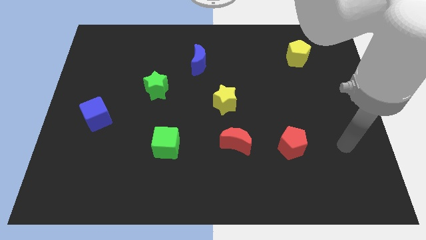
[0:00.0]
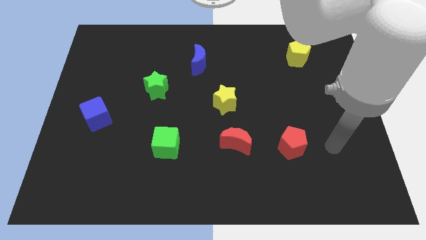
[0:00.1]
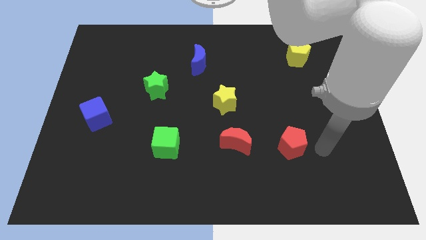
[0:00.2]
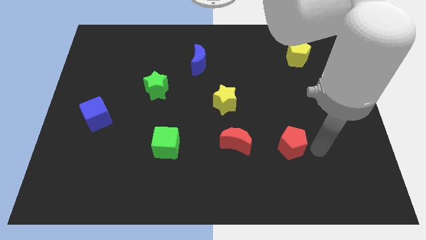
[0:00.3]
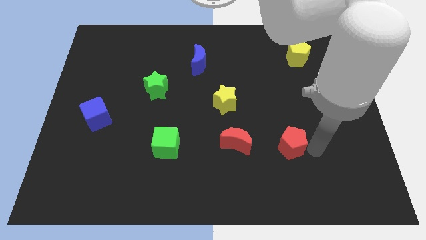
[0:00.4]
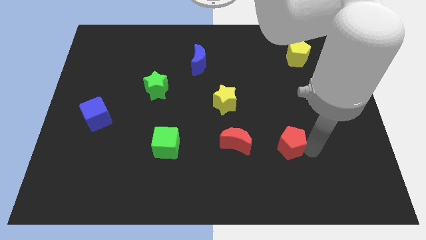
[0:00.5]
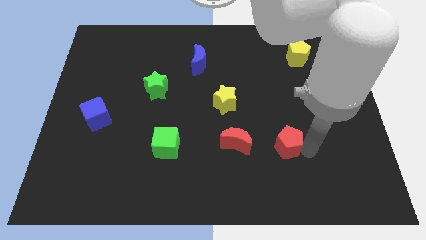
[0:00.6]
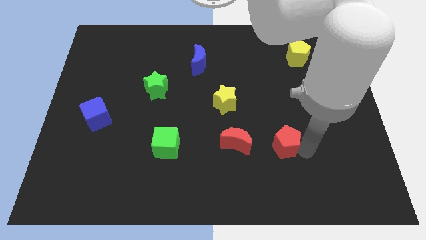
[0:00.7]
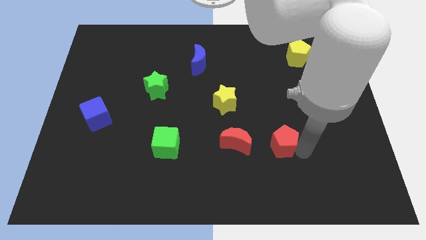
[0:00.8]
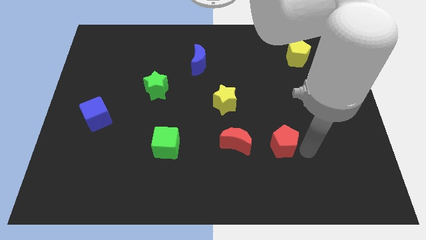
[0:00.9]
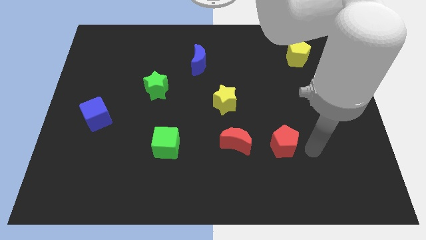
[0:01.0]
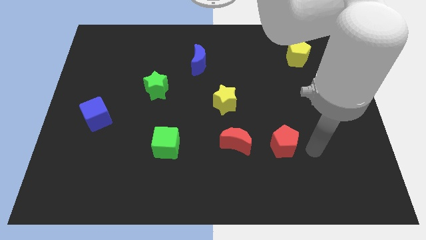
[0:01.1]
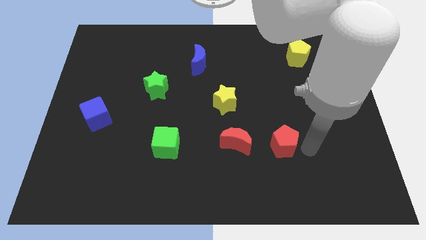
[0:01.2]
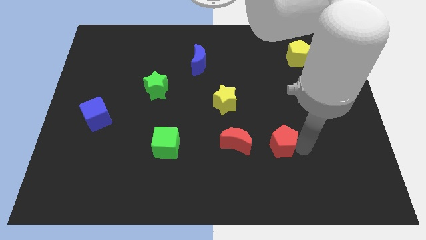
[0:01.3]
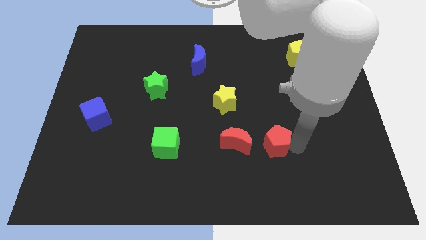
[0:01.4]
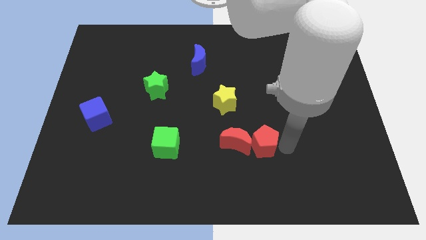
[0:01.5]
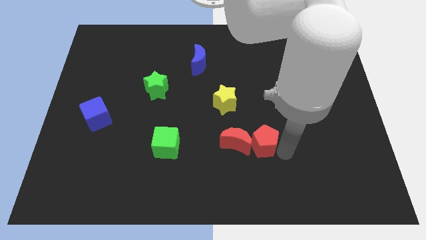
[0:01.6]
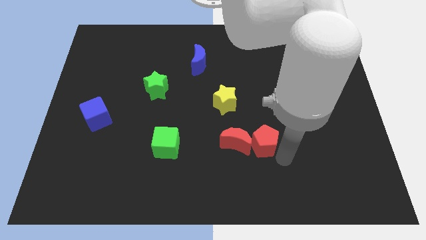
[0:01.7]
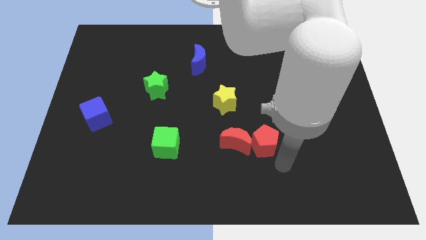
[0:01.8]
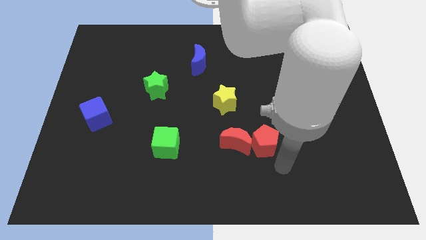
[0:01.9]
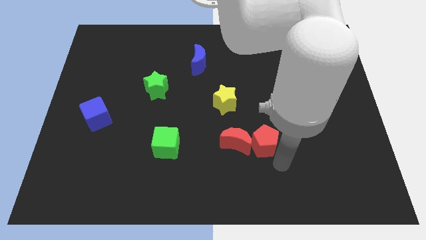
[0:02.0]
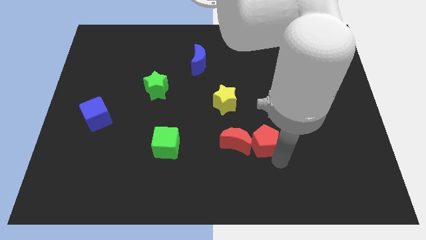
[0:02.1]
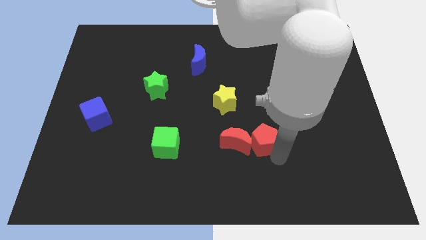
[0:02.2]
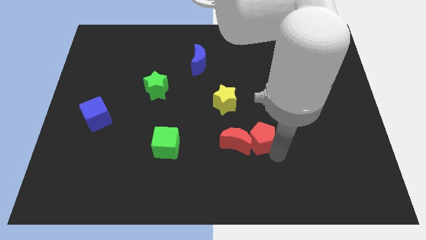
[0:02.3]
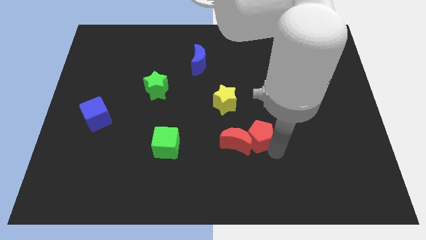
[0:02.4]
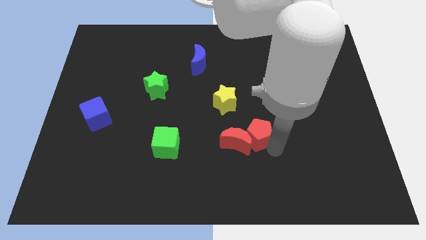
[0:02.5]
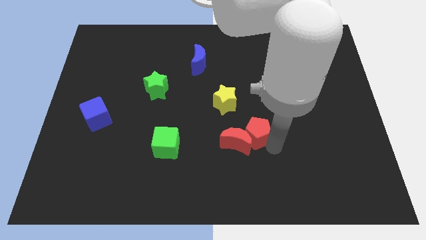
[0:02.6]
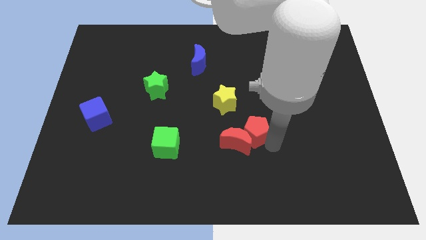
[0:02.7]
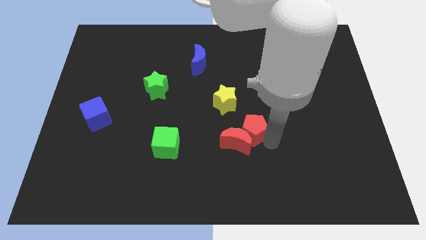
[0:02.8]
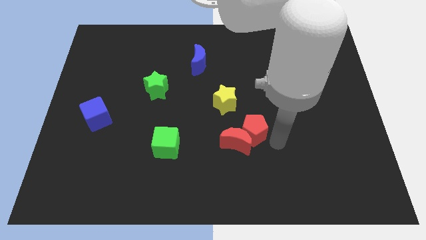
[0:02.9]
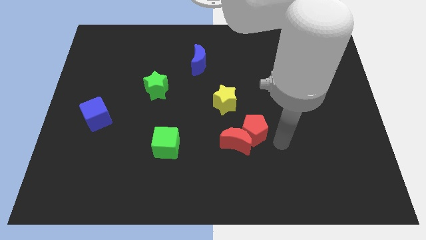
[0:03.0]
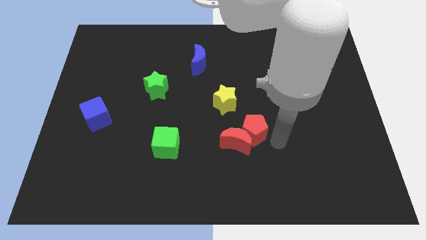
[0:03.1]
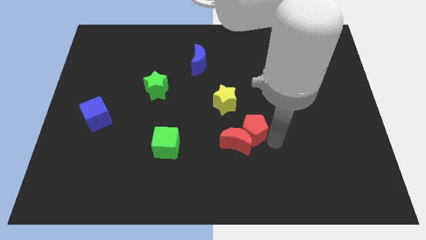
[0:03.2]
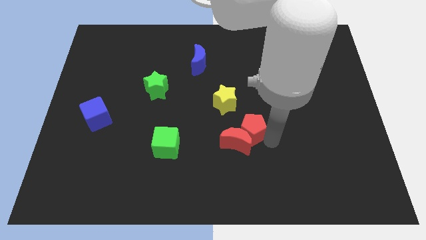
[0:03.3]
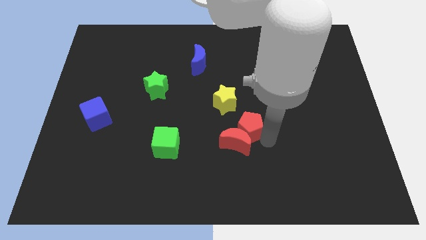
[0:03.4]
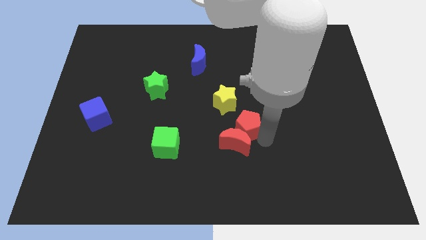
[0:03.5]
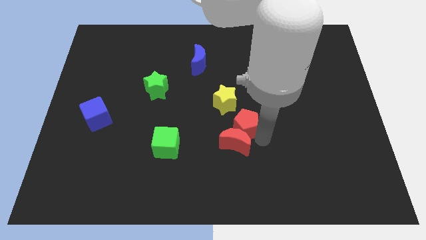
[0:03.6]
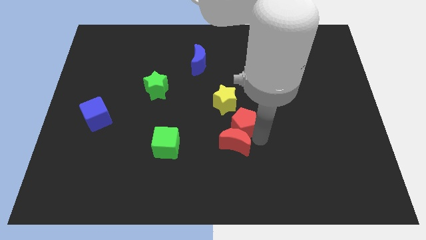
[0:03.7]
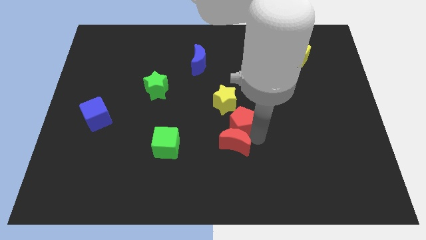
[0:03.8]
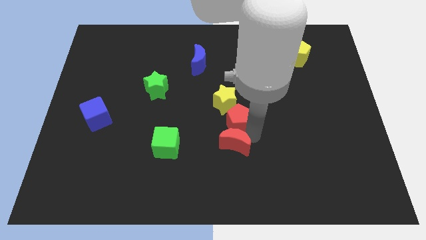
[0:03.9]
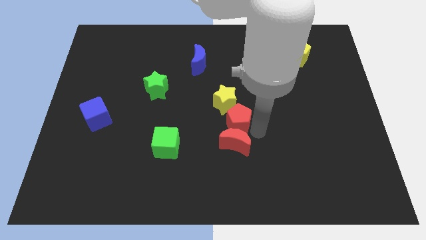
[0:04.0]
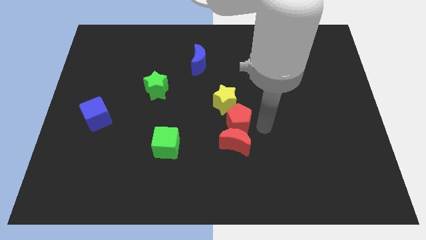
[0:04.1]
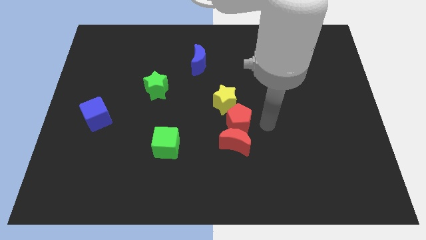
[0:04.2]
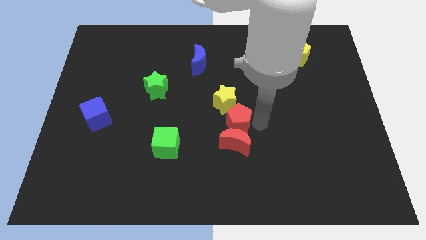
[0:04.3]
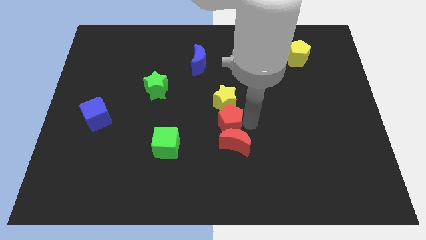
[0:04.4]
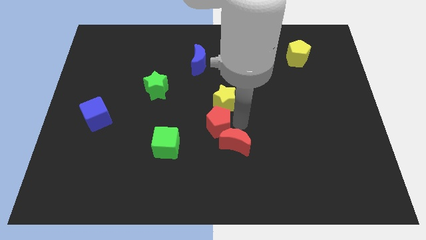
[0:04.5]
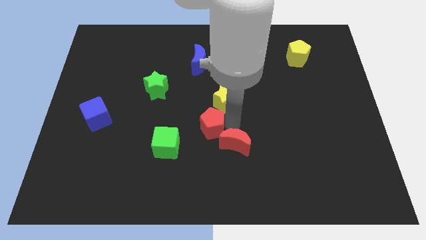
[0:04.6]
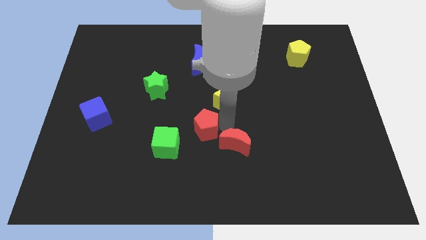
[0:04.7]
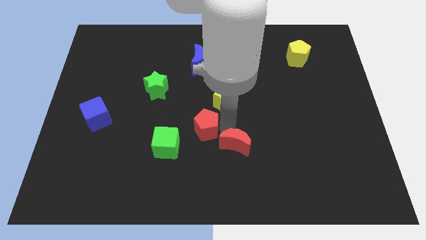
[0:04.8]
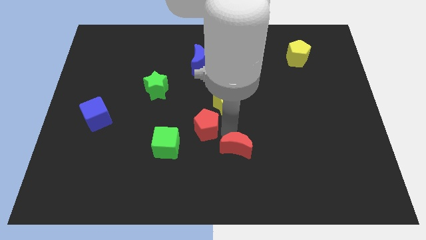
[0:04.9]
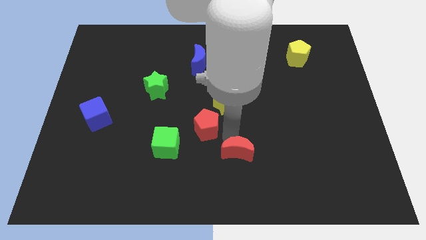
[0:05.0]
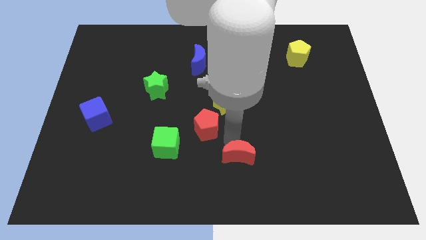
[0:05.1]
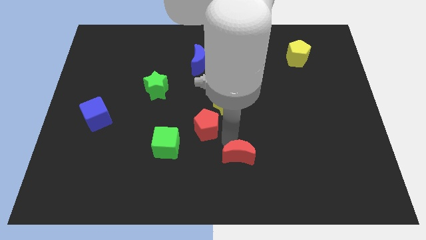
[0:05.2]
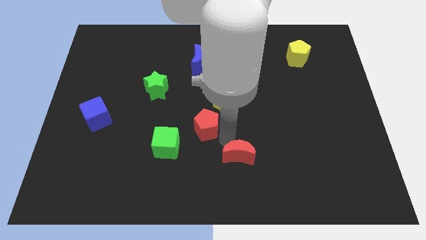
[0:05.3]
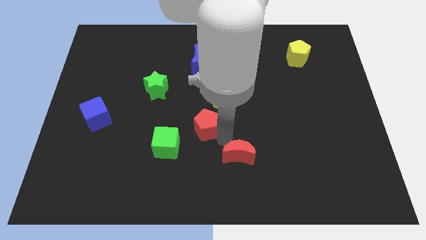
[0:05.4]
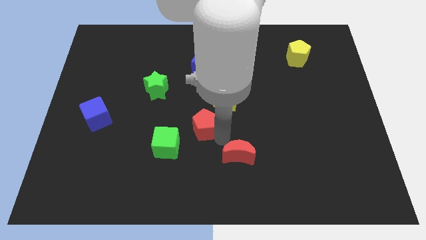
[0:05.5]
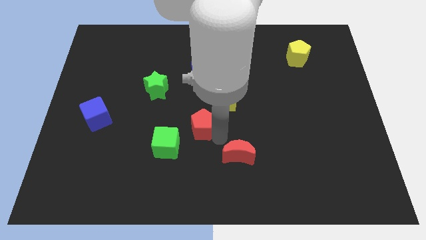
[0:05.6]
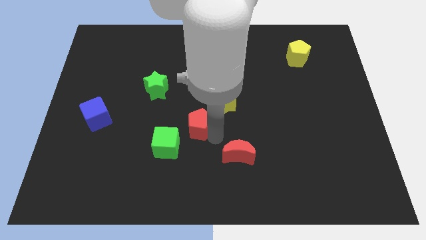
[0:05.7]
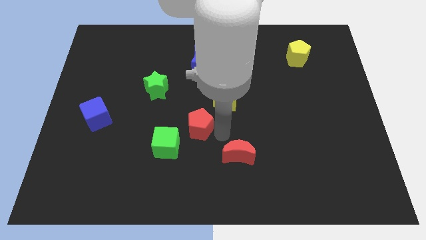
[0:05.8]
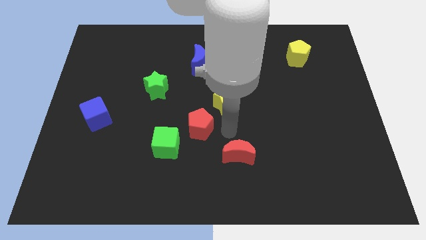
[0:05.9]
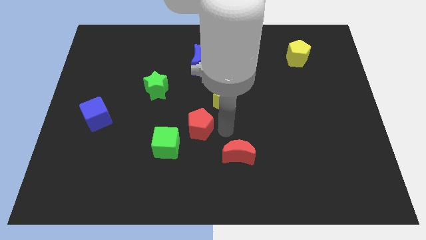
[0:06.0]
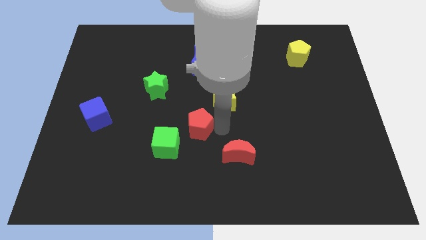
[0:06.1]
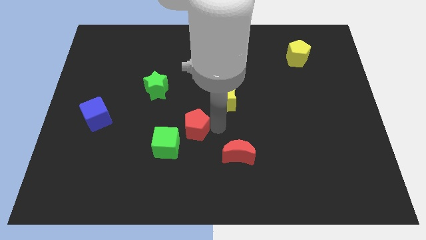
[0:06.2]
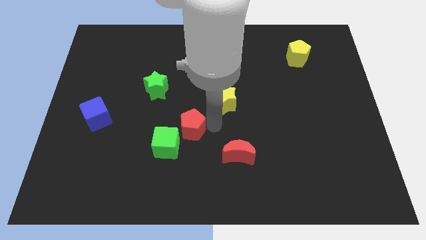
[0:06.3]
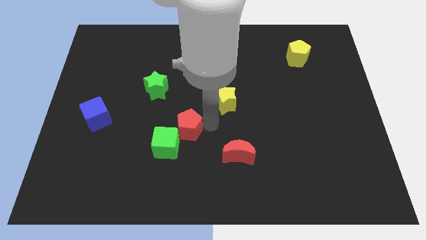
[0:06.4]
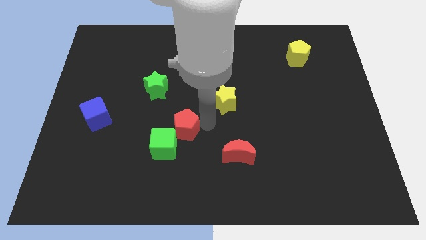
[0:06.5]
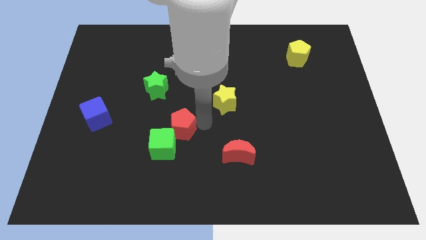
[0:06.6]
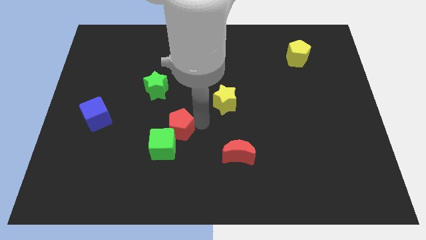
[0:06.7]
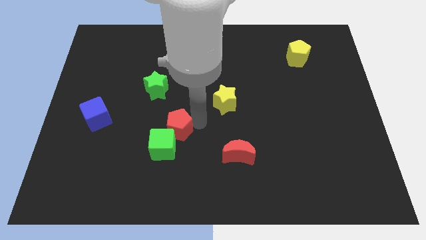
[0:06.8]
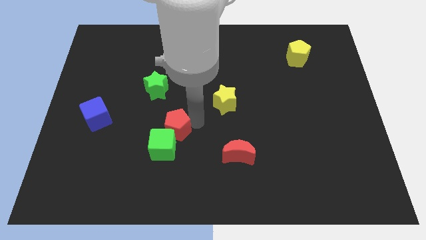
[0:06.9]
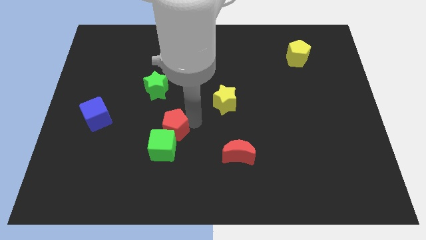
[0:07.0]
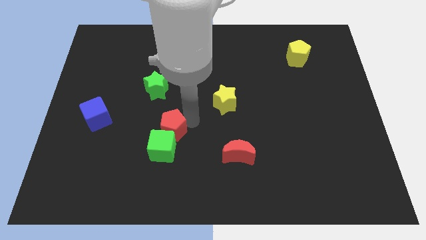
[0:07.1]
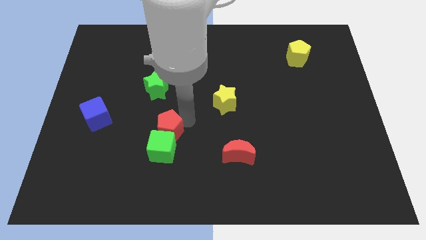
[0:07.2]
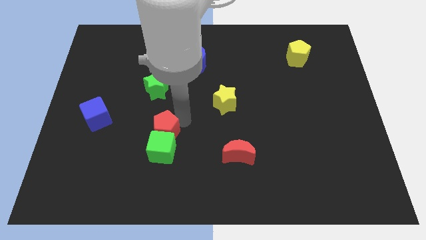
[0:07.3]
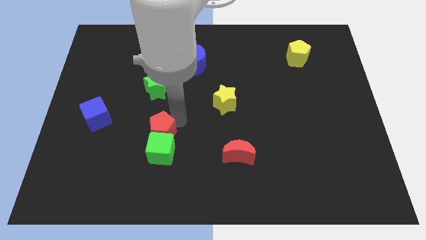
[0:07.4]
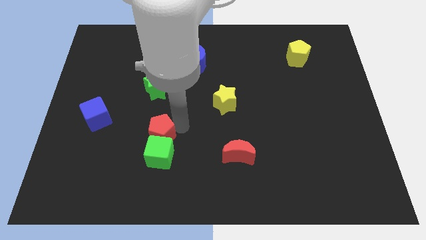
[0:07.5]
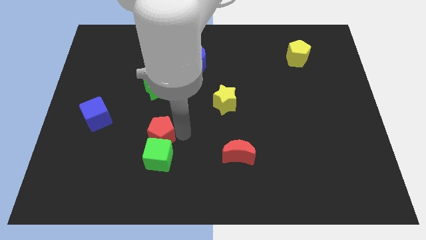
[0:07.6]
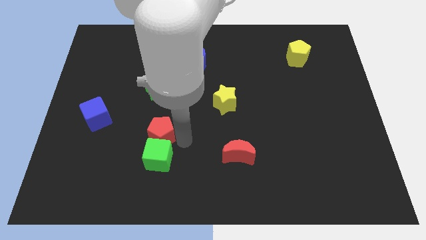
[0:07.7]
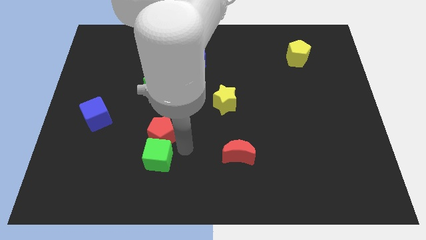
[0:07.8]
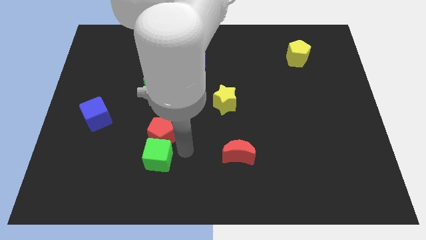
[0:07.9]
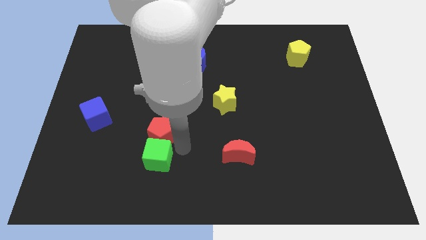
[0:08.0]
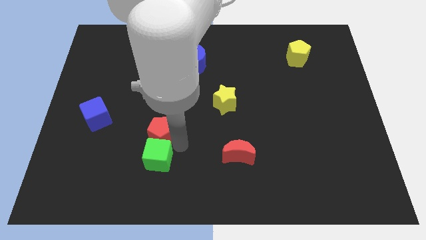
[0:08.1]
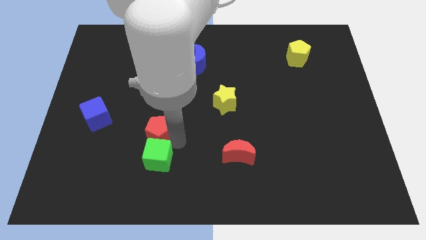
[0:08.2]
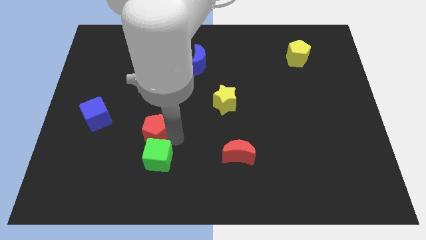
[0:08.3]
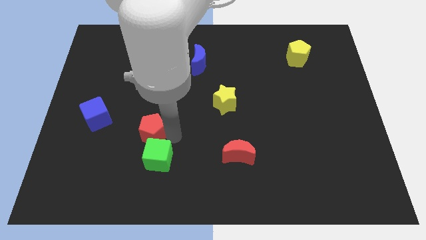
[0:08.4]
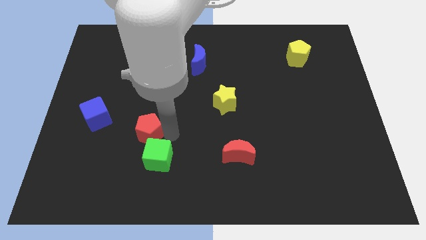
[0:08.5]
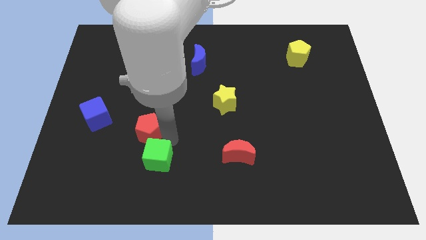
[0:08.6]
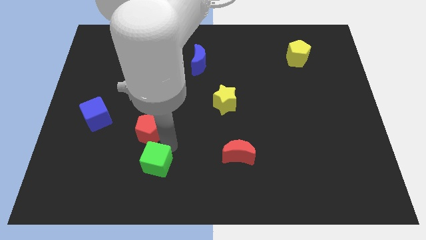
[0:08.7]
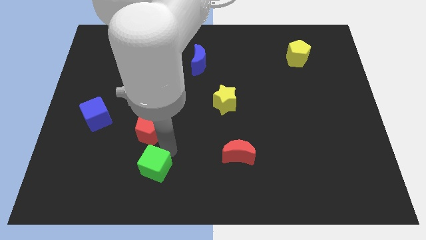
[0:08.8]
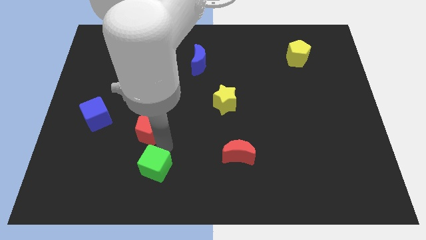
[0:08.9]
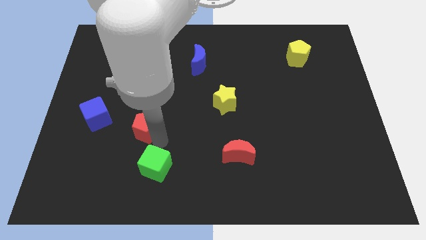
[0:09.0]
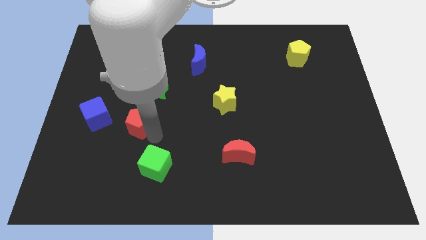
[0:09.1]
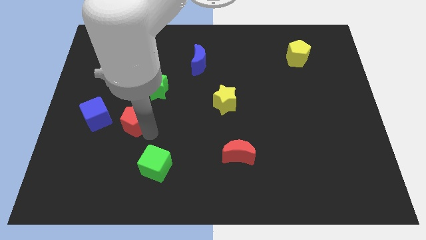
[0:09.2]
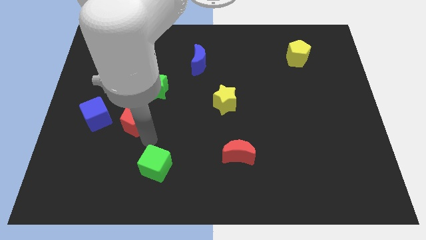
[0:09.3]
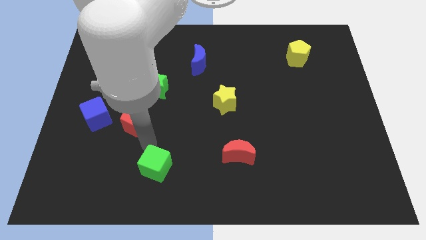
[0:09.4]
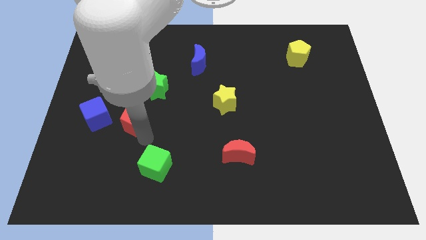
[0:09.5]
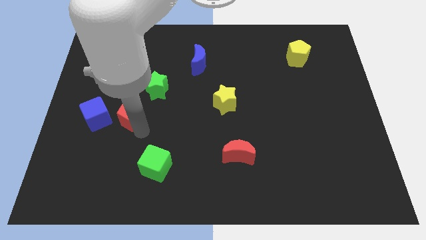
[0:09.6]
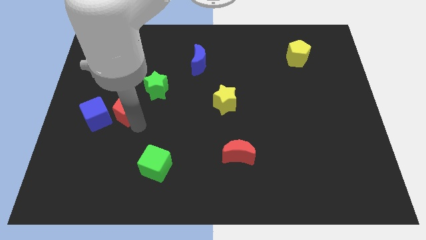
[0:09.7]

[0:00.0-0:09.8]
move the red pentagon to the top right side of the blue cube
